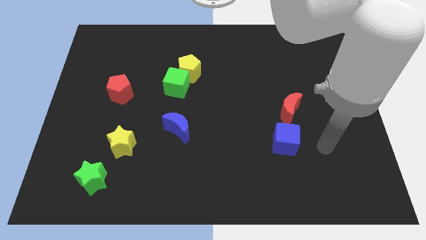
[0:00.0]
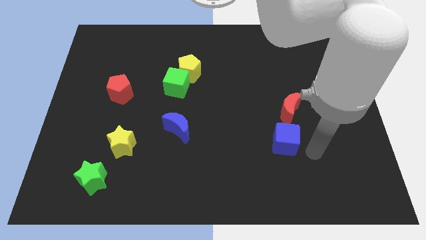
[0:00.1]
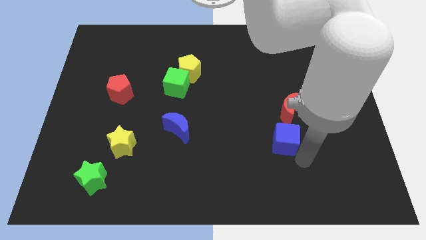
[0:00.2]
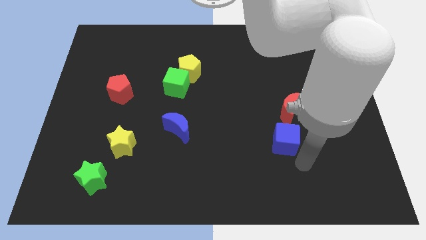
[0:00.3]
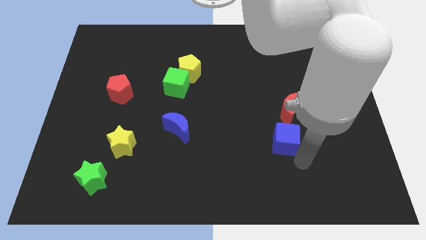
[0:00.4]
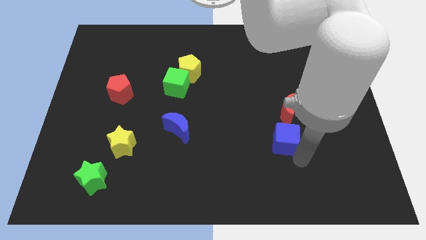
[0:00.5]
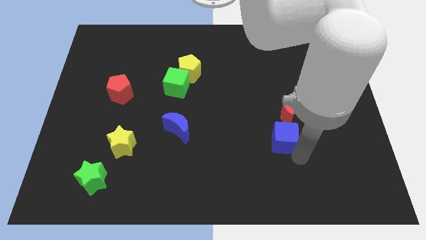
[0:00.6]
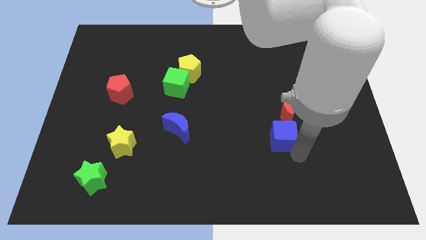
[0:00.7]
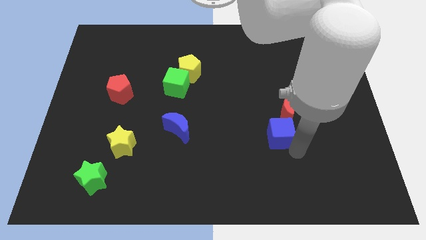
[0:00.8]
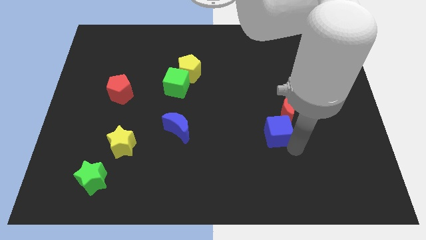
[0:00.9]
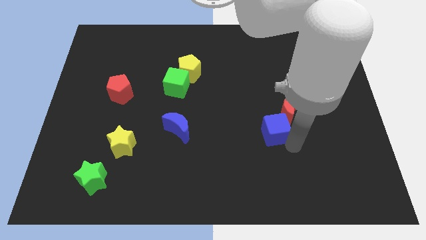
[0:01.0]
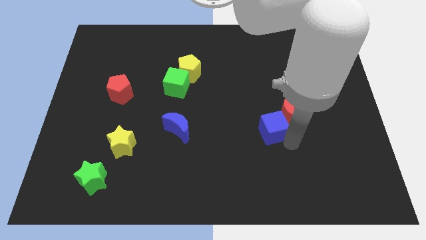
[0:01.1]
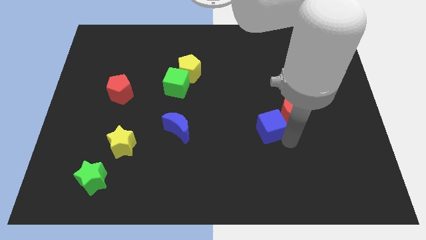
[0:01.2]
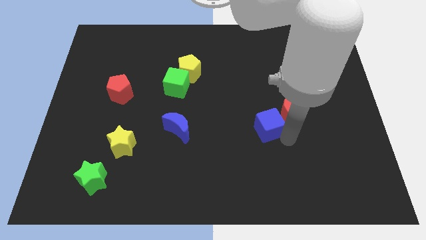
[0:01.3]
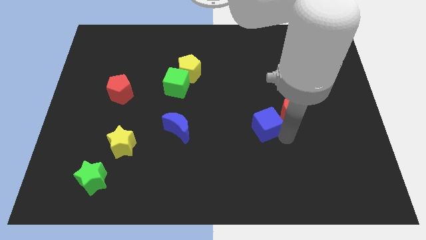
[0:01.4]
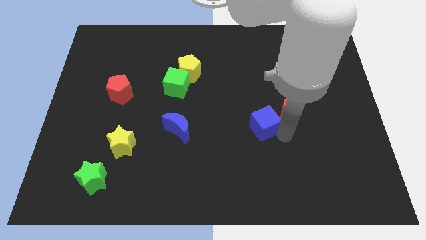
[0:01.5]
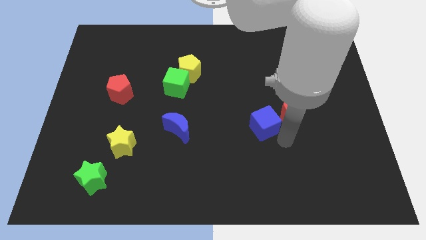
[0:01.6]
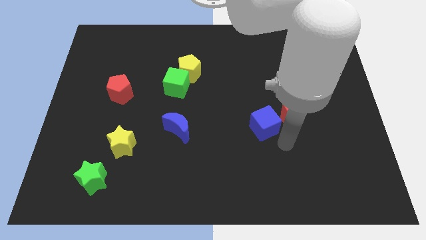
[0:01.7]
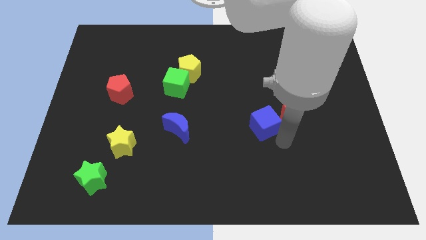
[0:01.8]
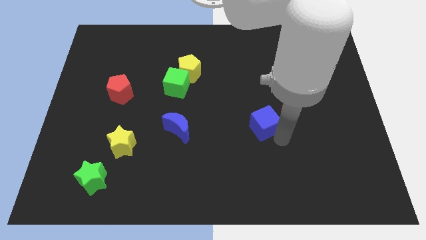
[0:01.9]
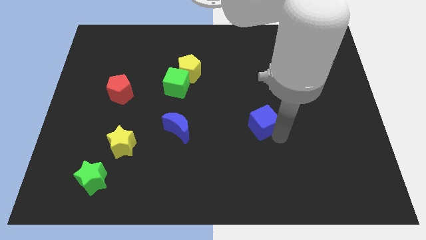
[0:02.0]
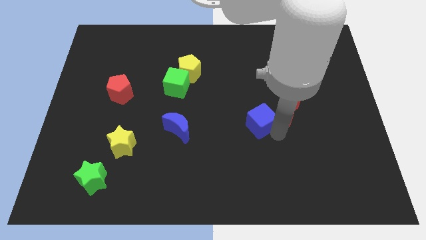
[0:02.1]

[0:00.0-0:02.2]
slide the blue cube diagonally up and to the left a little bit

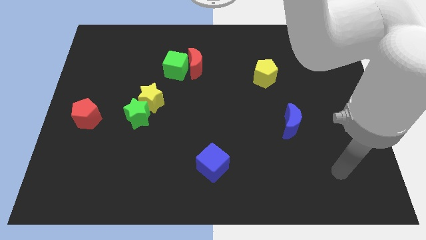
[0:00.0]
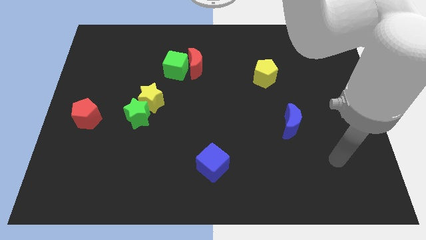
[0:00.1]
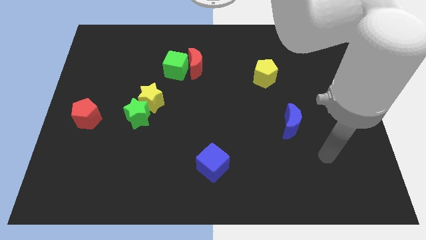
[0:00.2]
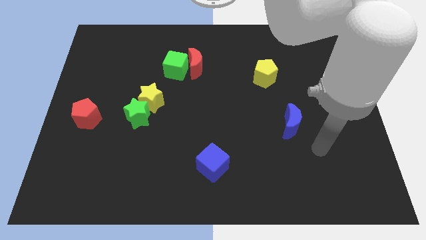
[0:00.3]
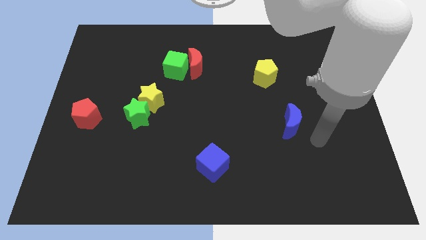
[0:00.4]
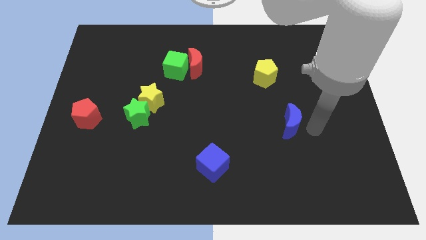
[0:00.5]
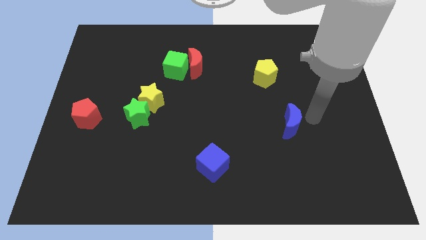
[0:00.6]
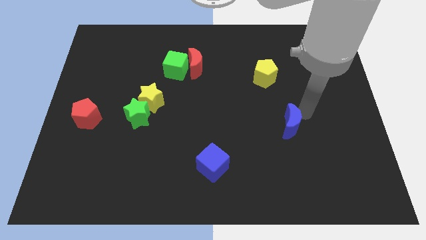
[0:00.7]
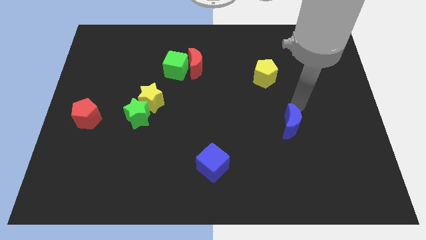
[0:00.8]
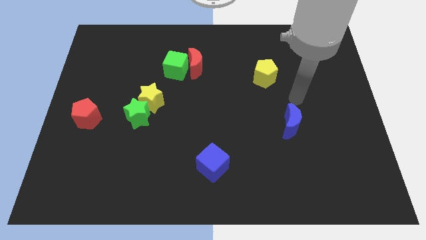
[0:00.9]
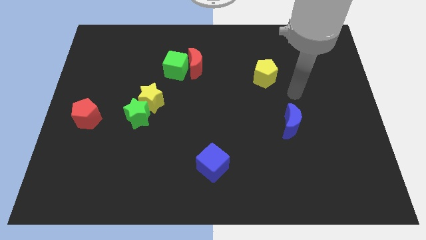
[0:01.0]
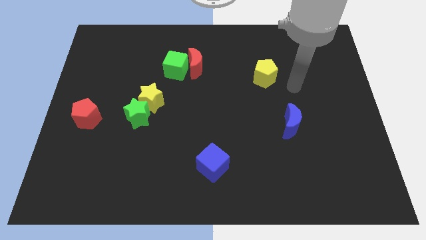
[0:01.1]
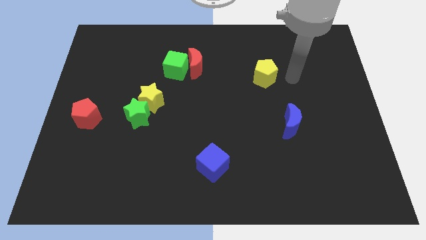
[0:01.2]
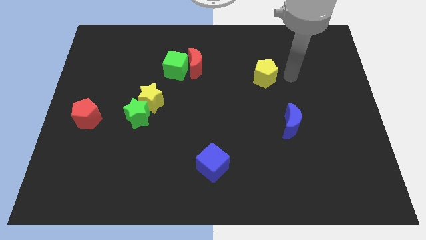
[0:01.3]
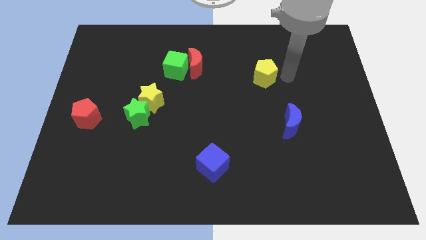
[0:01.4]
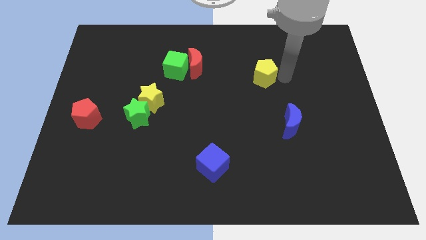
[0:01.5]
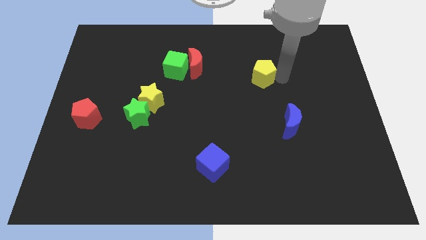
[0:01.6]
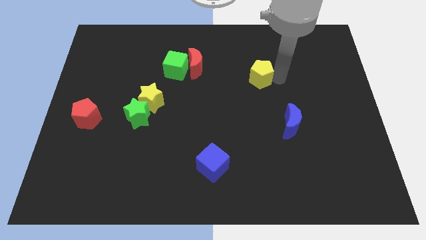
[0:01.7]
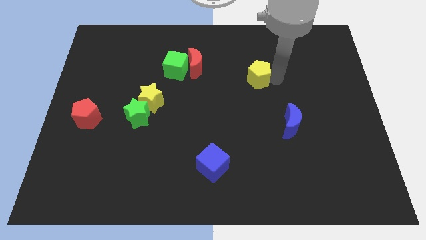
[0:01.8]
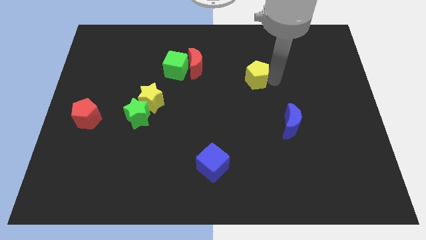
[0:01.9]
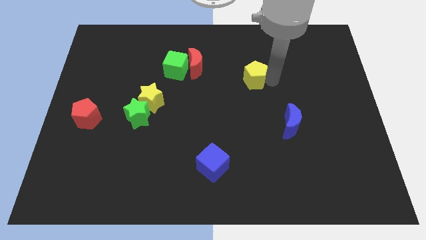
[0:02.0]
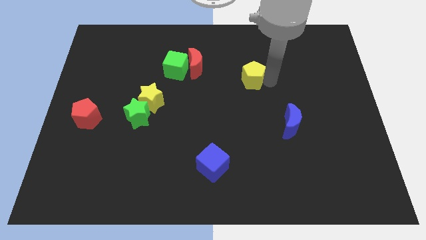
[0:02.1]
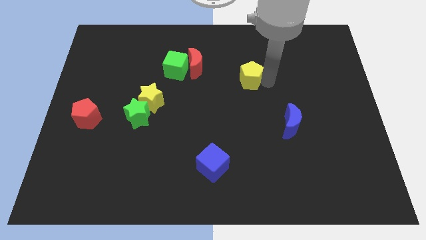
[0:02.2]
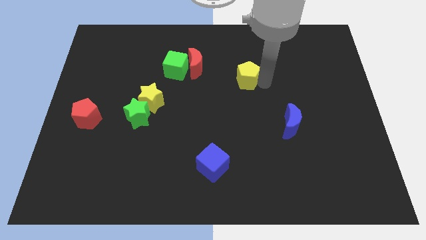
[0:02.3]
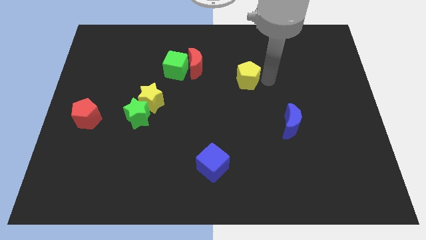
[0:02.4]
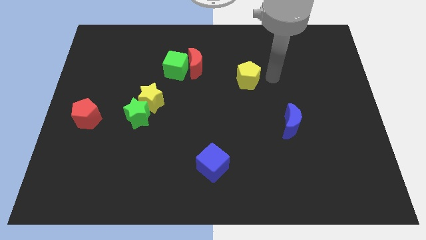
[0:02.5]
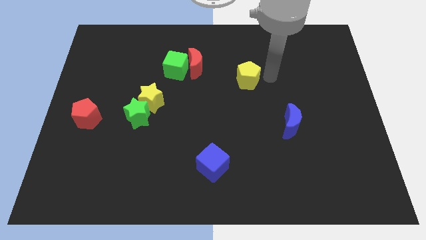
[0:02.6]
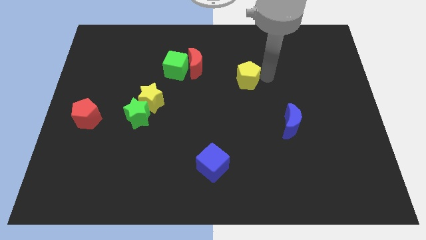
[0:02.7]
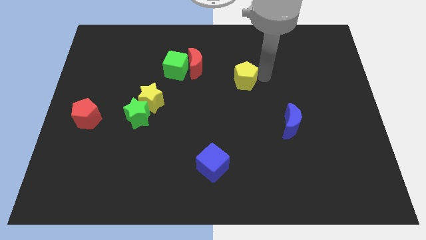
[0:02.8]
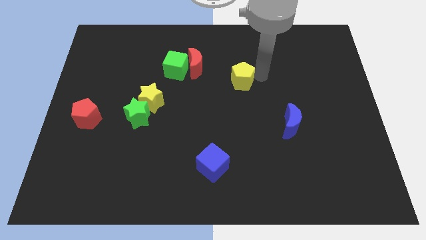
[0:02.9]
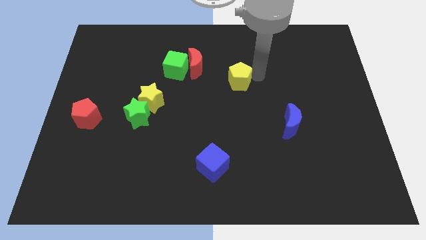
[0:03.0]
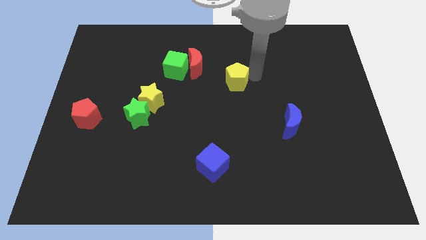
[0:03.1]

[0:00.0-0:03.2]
slide the yellow pentagon left a little bit

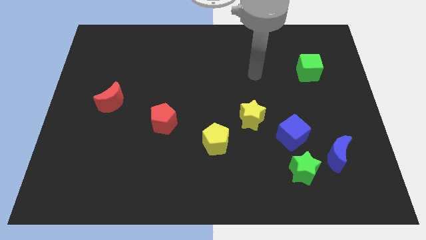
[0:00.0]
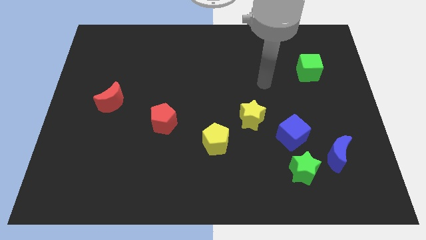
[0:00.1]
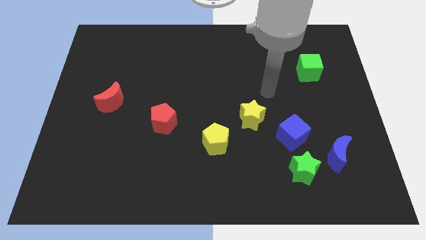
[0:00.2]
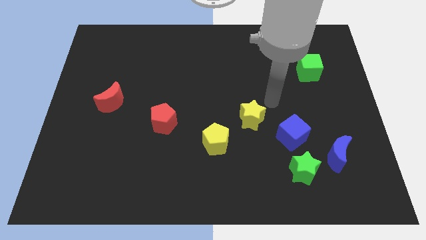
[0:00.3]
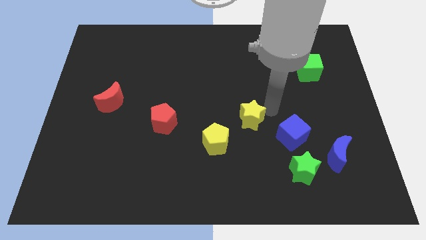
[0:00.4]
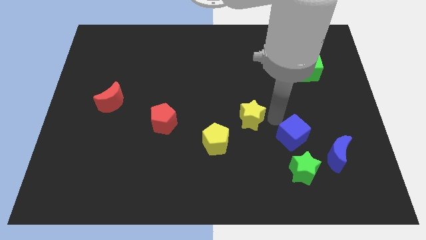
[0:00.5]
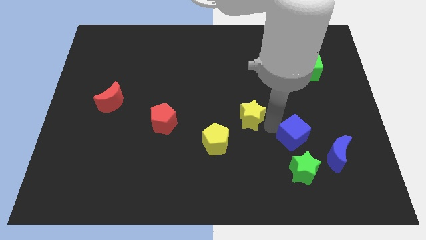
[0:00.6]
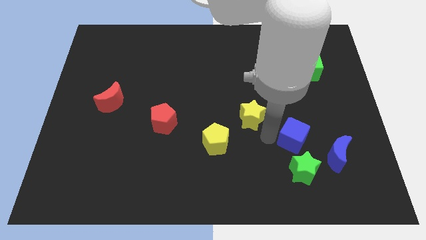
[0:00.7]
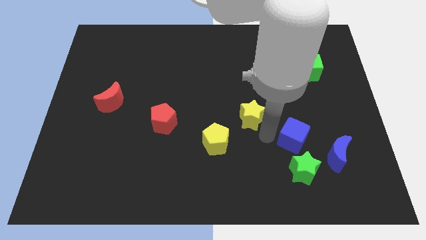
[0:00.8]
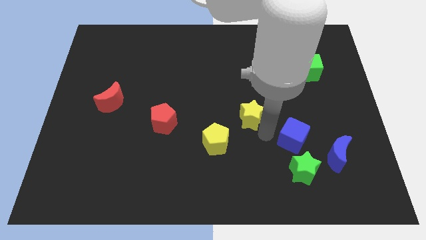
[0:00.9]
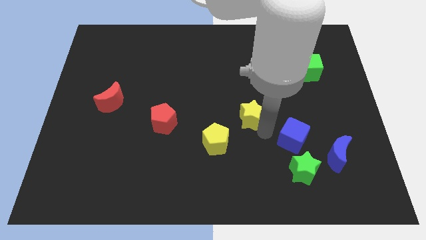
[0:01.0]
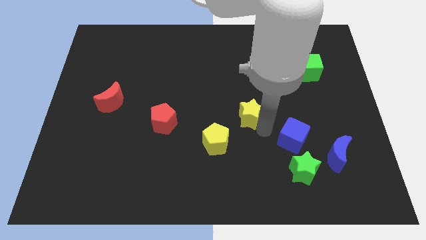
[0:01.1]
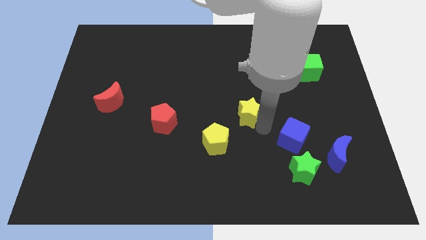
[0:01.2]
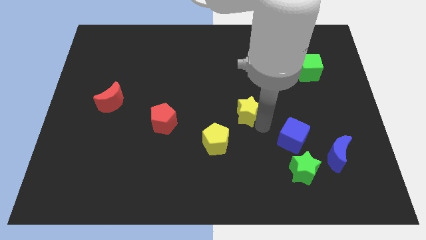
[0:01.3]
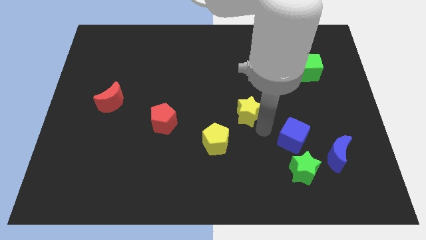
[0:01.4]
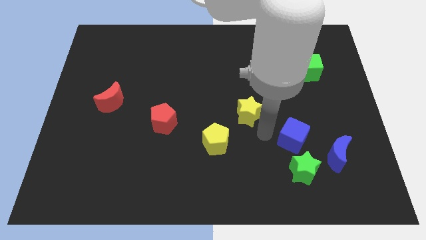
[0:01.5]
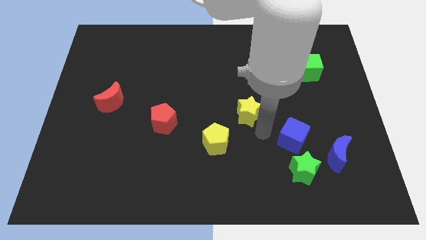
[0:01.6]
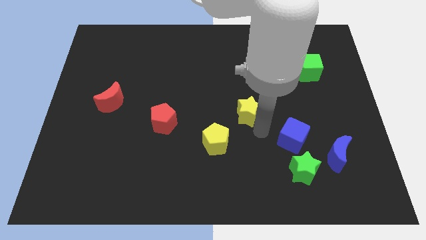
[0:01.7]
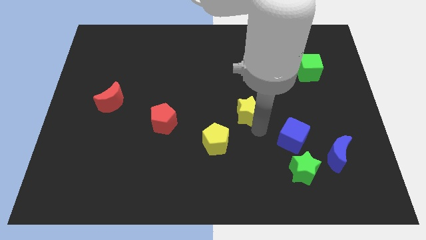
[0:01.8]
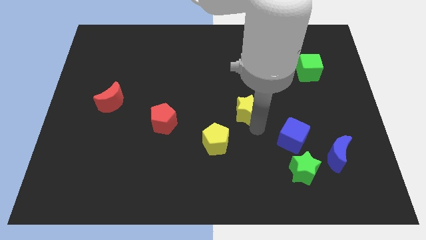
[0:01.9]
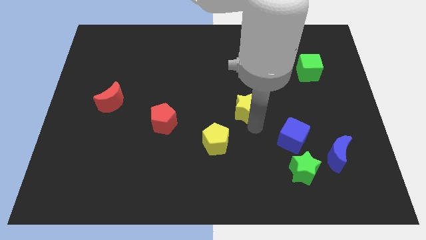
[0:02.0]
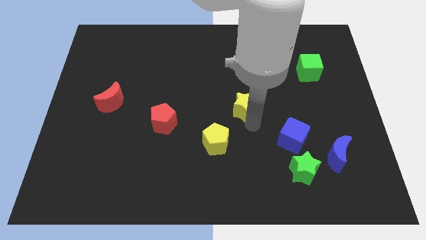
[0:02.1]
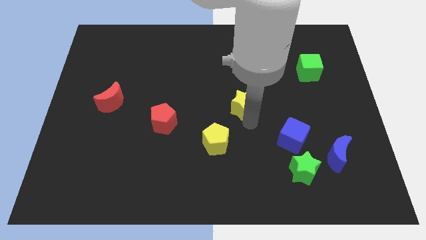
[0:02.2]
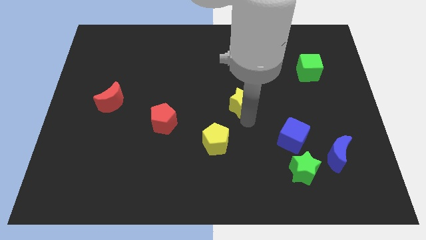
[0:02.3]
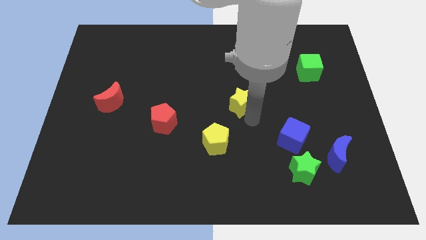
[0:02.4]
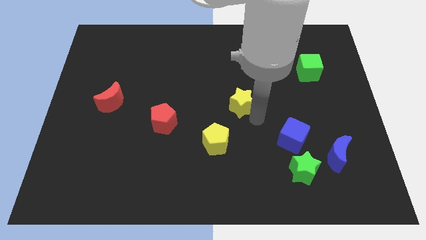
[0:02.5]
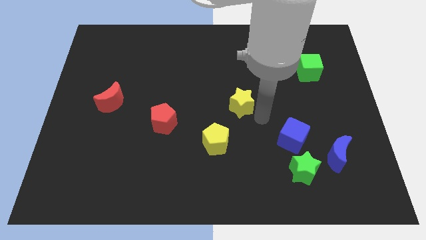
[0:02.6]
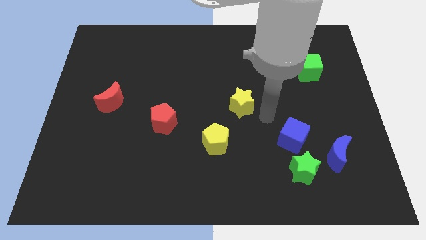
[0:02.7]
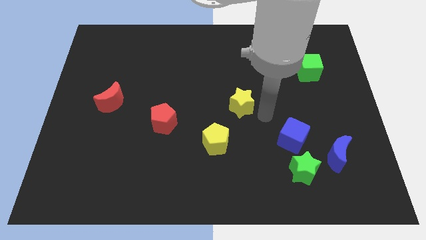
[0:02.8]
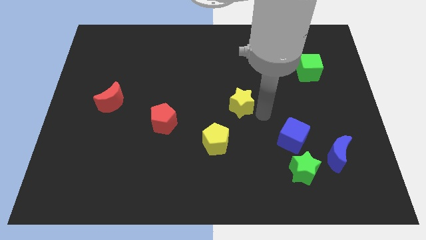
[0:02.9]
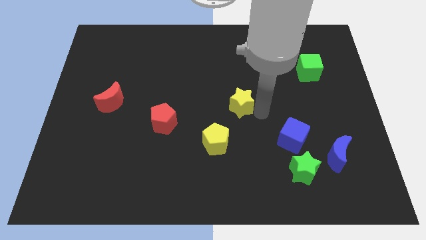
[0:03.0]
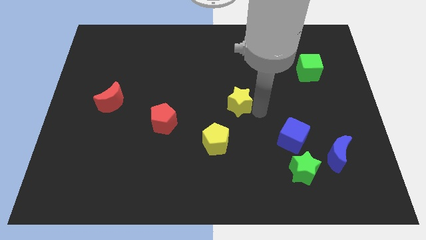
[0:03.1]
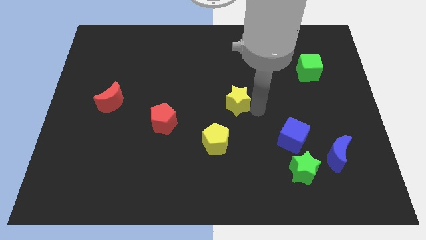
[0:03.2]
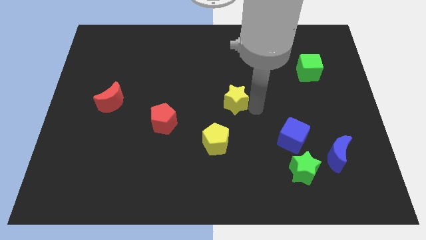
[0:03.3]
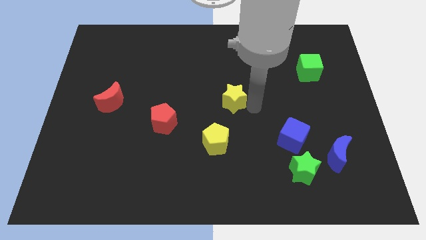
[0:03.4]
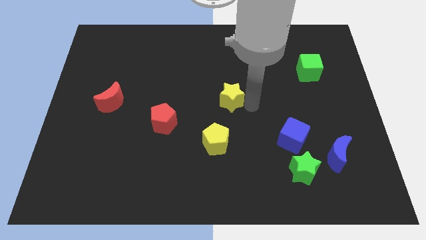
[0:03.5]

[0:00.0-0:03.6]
slightly slide the yellow star upwards and to the left diagonally
